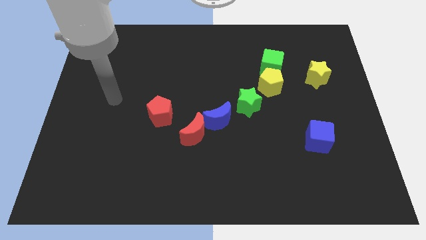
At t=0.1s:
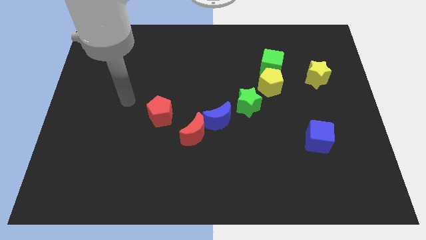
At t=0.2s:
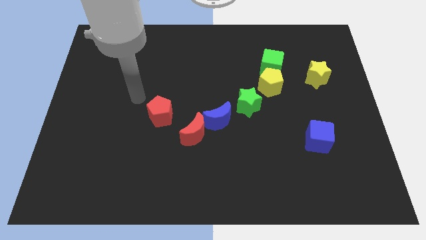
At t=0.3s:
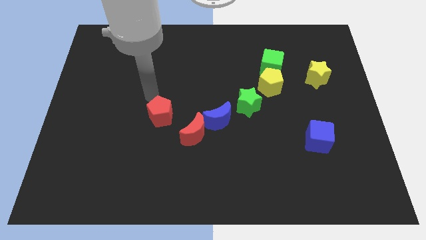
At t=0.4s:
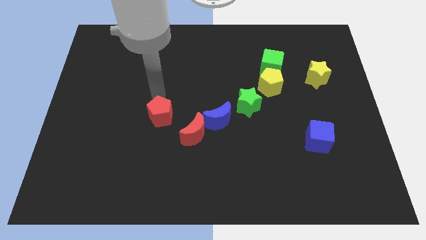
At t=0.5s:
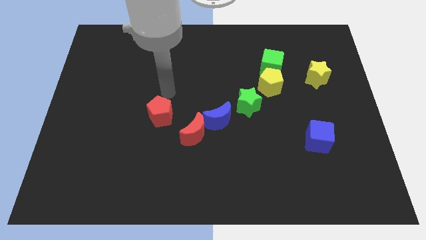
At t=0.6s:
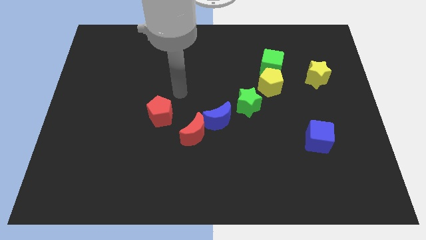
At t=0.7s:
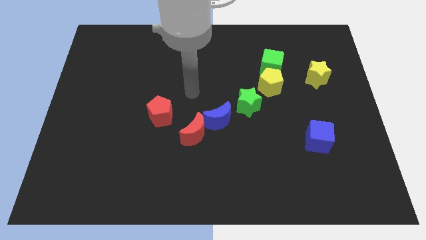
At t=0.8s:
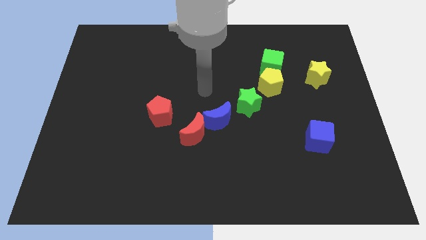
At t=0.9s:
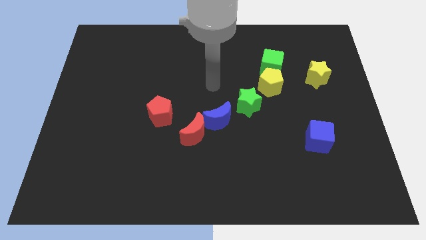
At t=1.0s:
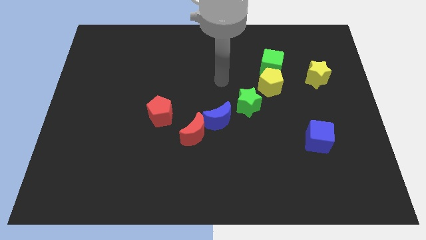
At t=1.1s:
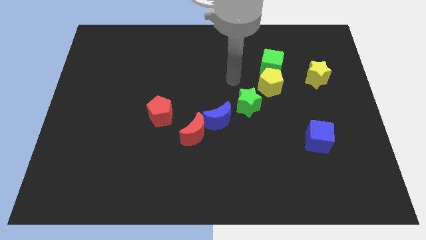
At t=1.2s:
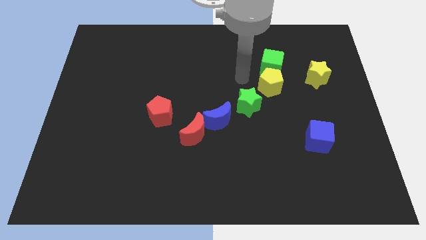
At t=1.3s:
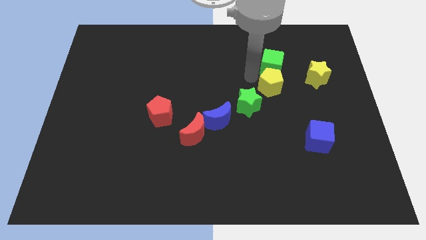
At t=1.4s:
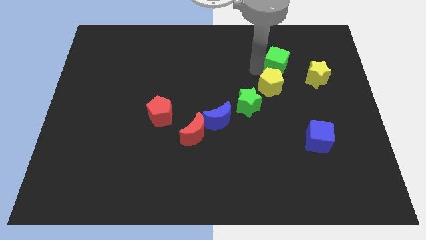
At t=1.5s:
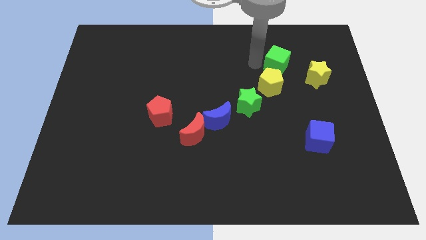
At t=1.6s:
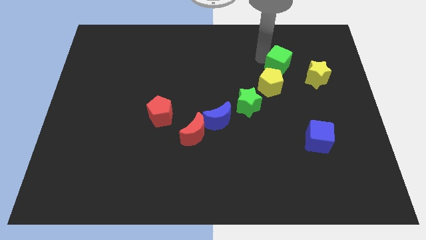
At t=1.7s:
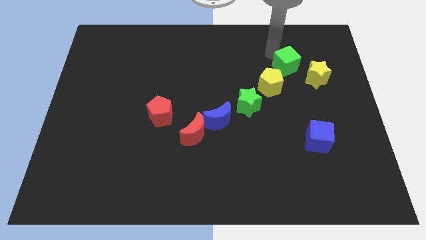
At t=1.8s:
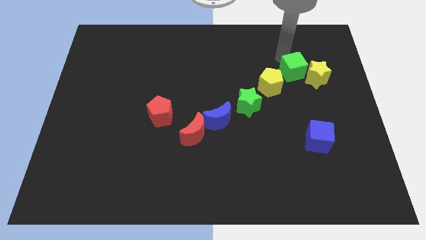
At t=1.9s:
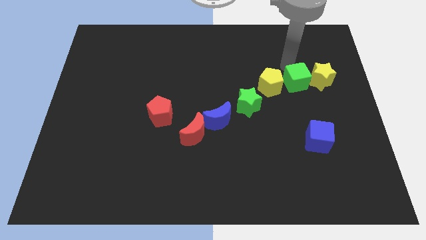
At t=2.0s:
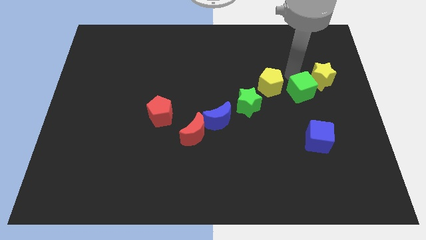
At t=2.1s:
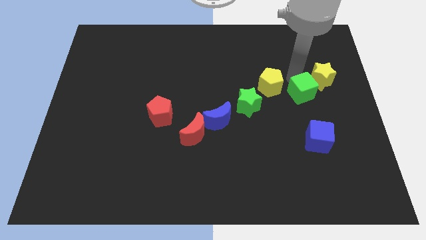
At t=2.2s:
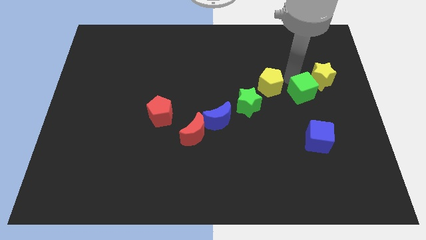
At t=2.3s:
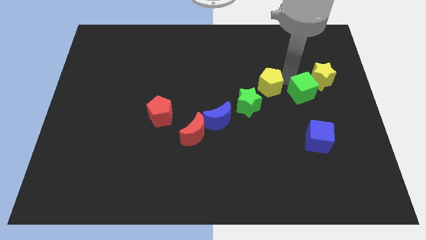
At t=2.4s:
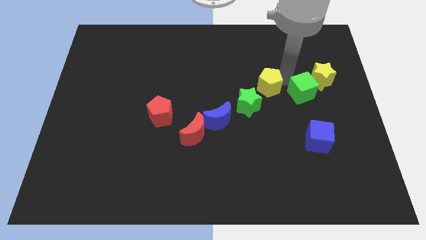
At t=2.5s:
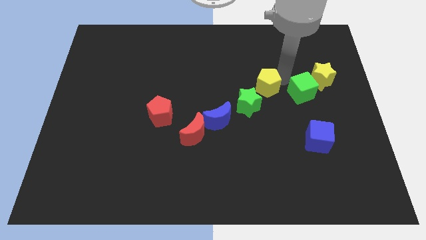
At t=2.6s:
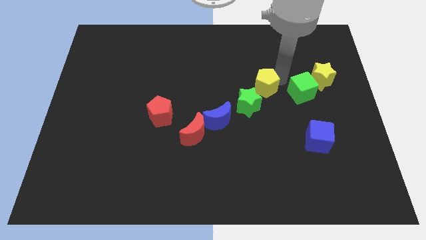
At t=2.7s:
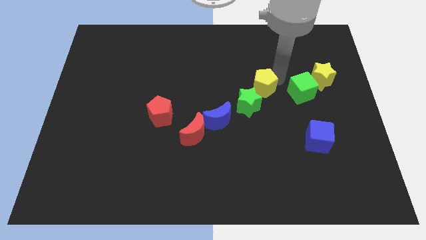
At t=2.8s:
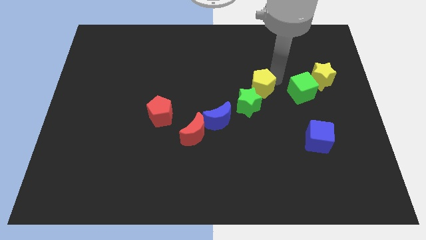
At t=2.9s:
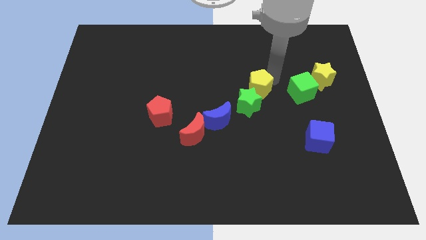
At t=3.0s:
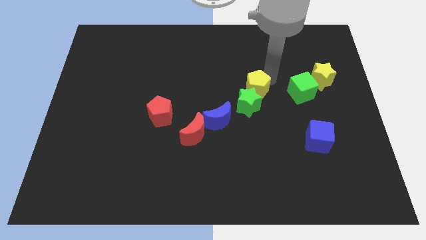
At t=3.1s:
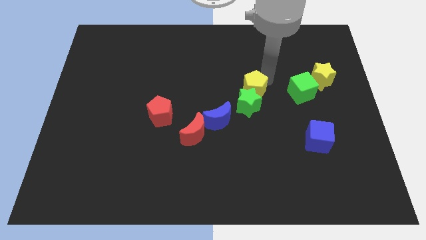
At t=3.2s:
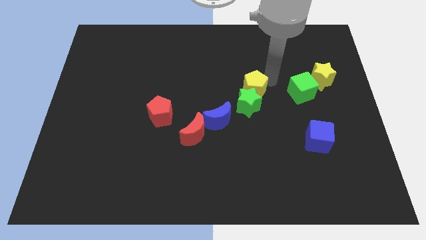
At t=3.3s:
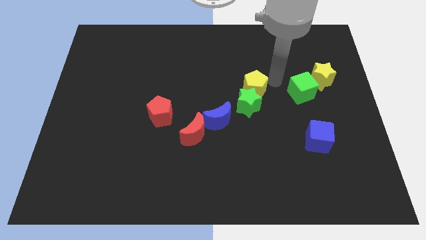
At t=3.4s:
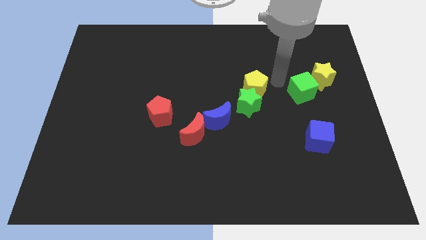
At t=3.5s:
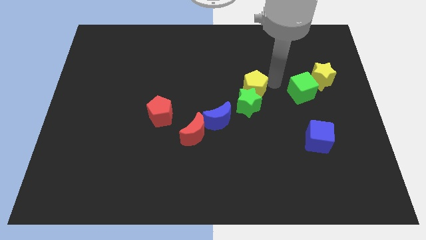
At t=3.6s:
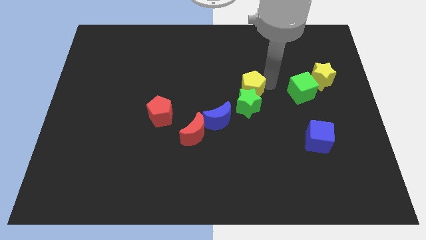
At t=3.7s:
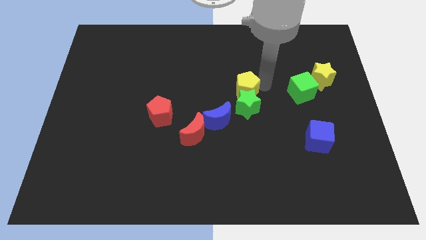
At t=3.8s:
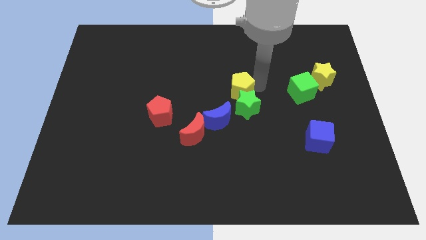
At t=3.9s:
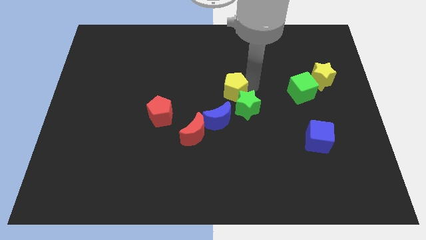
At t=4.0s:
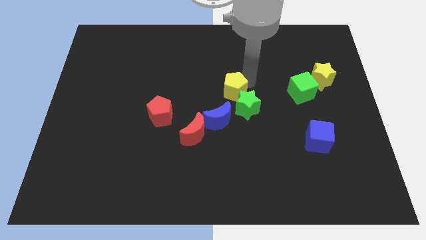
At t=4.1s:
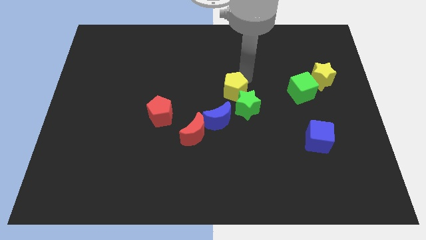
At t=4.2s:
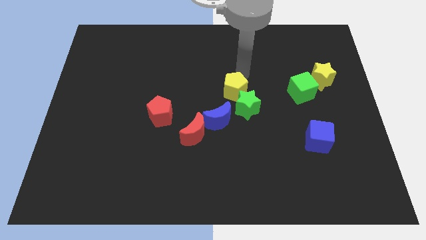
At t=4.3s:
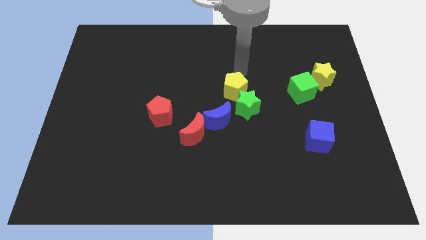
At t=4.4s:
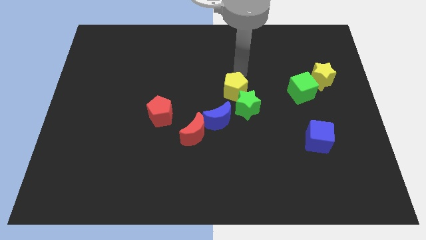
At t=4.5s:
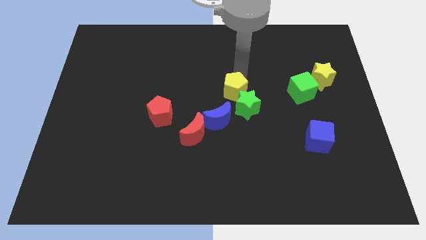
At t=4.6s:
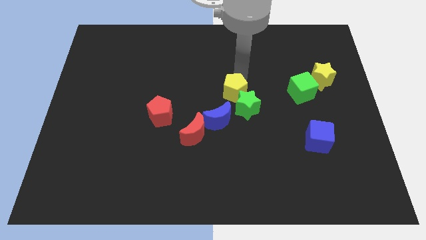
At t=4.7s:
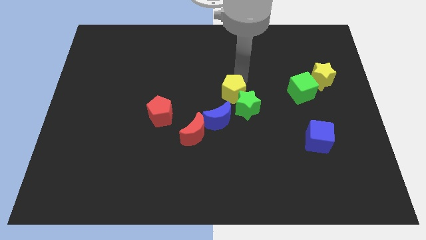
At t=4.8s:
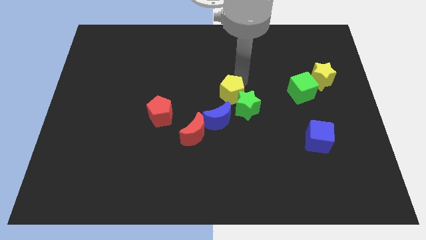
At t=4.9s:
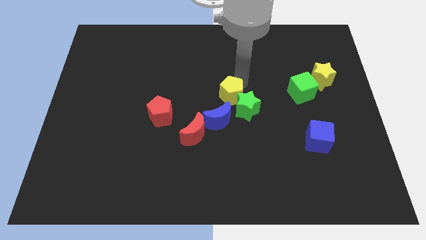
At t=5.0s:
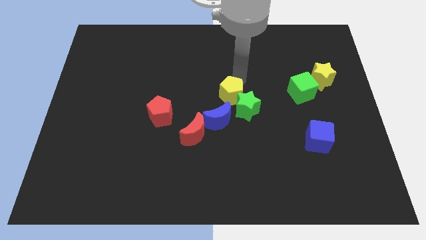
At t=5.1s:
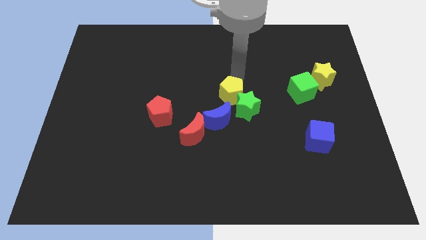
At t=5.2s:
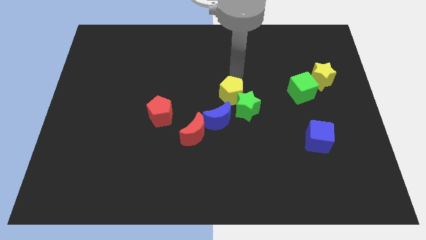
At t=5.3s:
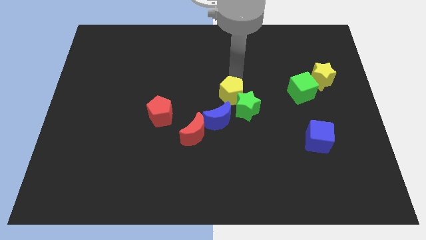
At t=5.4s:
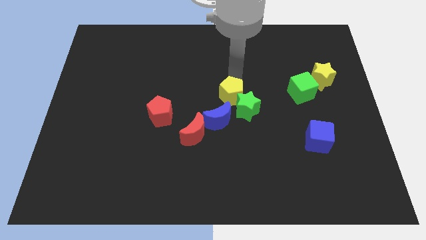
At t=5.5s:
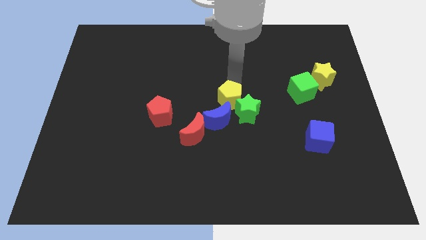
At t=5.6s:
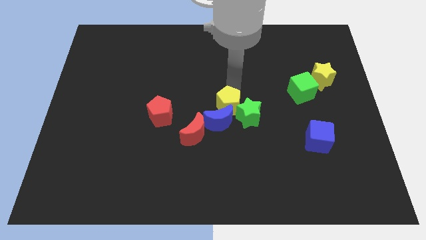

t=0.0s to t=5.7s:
move the yellow pentagon towards the blue moon

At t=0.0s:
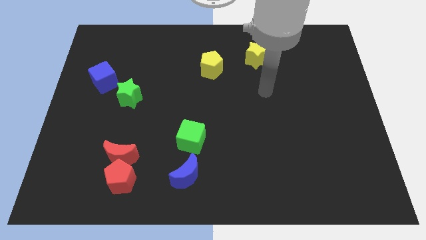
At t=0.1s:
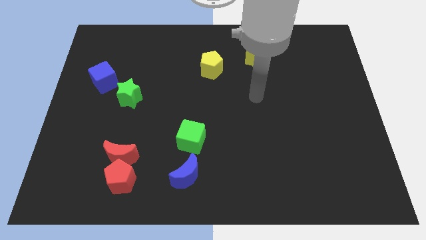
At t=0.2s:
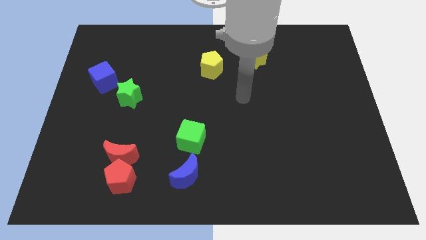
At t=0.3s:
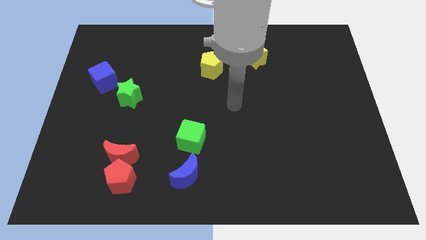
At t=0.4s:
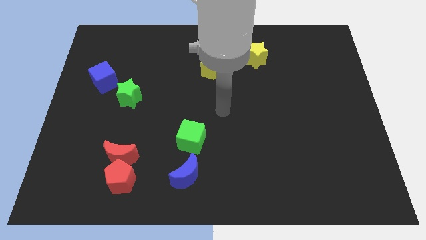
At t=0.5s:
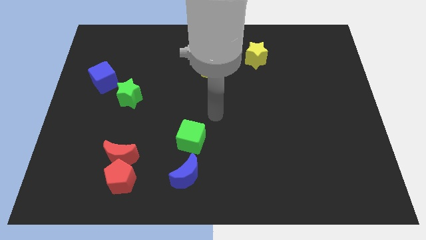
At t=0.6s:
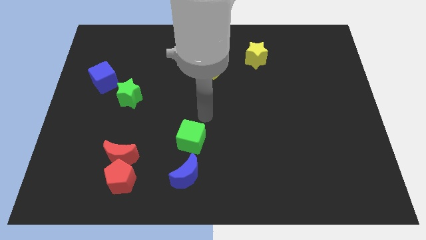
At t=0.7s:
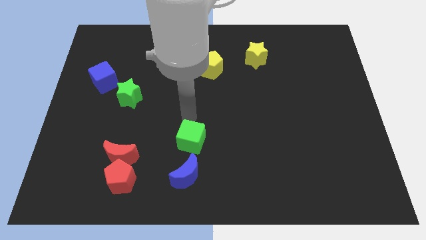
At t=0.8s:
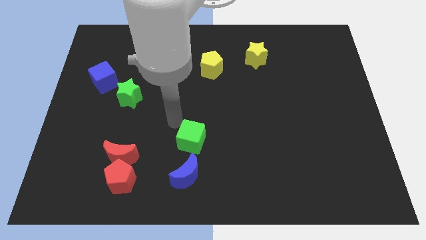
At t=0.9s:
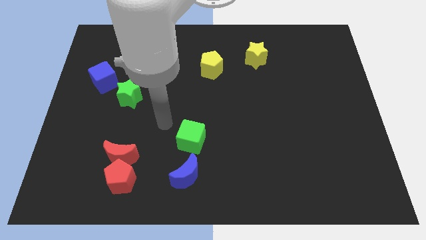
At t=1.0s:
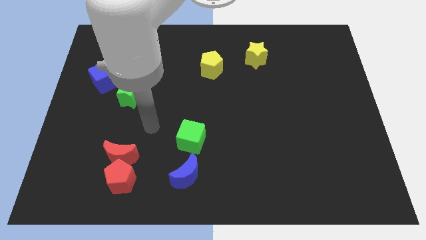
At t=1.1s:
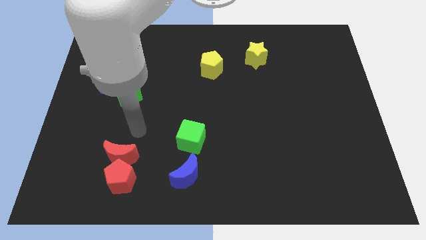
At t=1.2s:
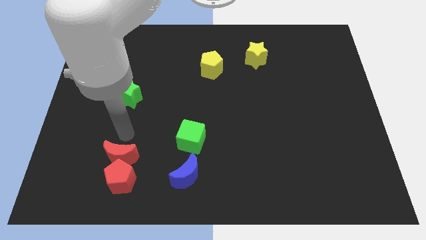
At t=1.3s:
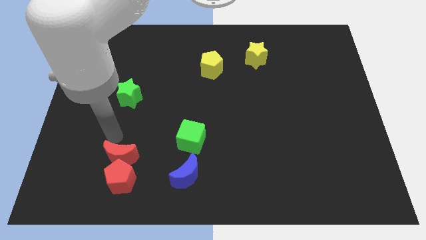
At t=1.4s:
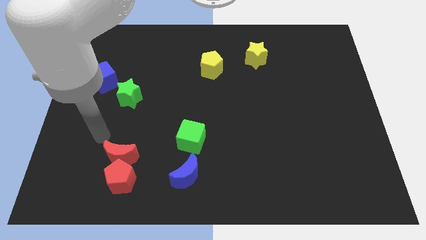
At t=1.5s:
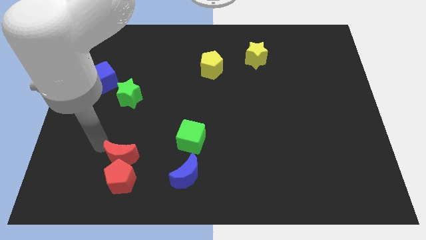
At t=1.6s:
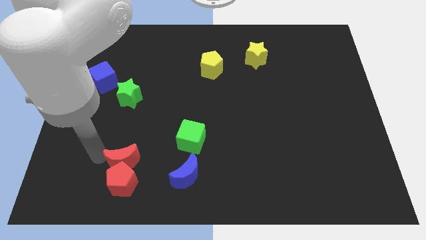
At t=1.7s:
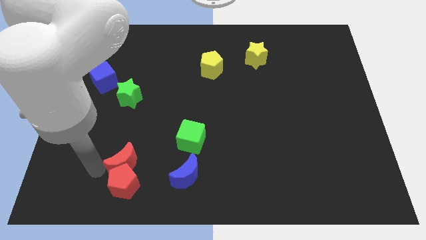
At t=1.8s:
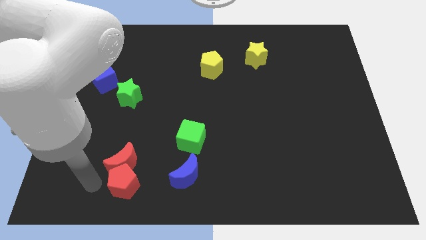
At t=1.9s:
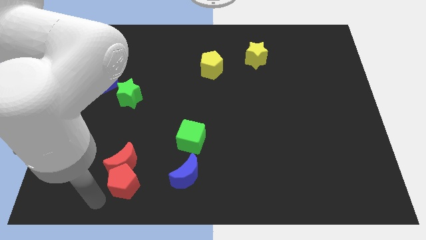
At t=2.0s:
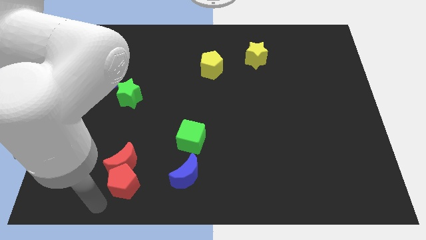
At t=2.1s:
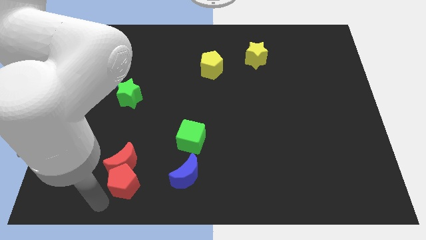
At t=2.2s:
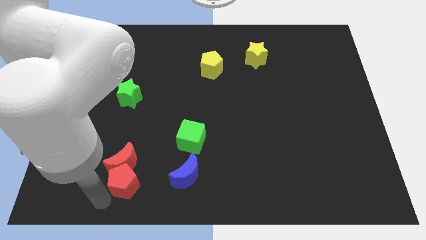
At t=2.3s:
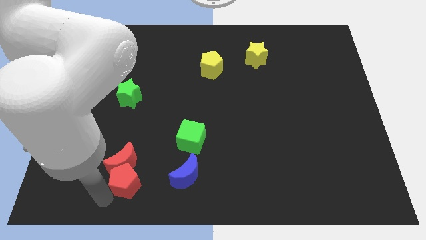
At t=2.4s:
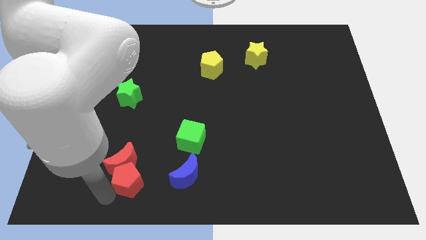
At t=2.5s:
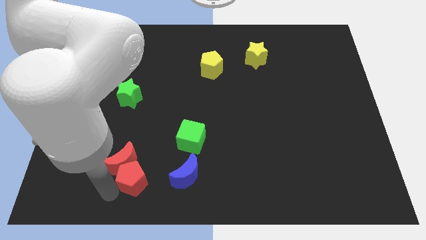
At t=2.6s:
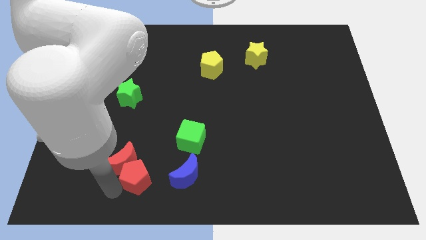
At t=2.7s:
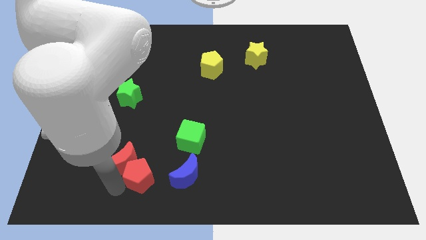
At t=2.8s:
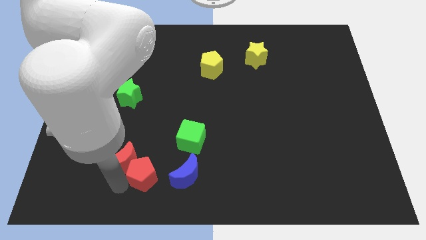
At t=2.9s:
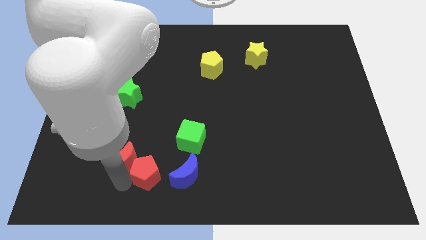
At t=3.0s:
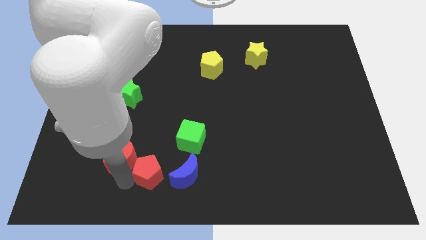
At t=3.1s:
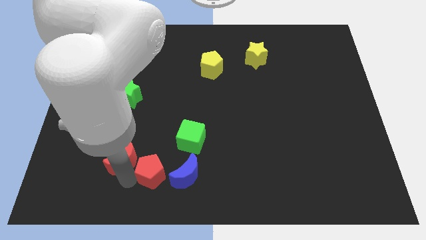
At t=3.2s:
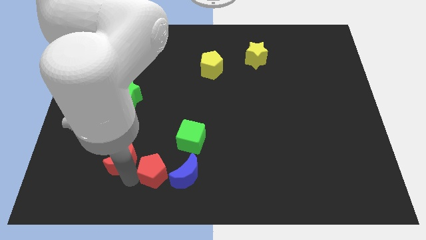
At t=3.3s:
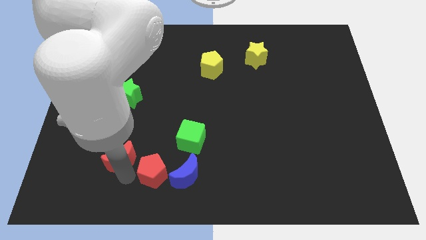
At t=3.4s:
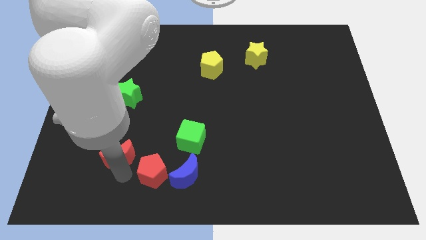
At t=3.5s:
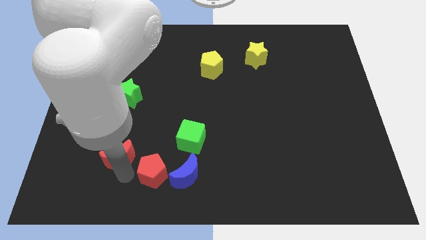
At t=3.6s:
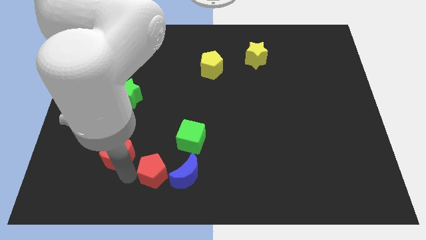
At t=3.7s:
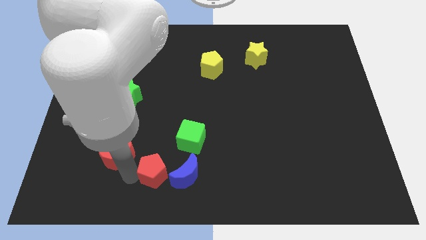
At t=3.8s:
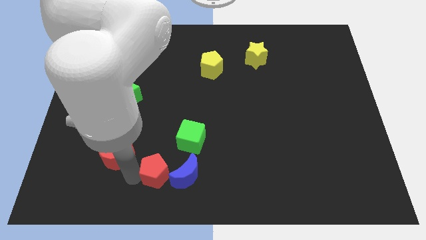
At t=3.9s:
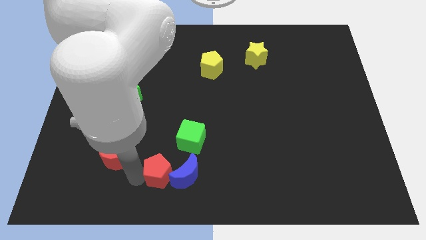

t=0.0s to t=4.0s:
put the red pentagon next to the blue moon
